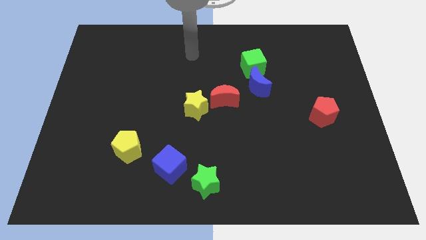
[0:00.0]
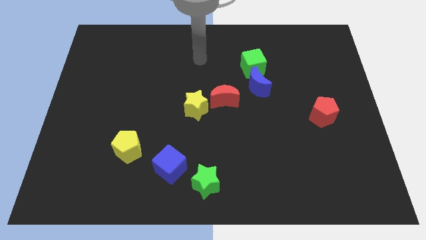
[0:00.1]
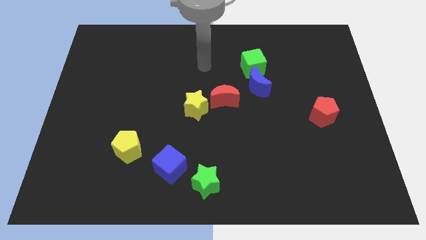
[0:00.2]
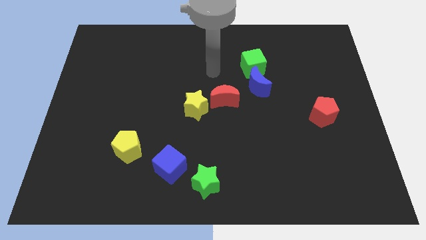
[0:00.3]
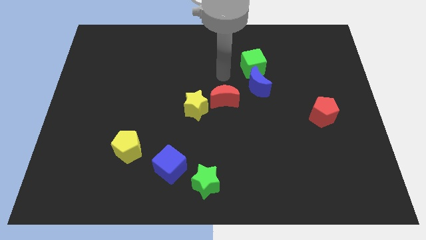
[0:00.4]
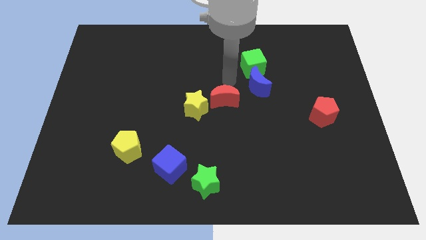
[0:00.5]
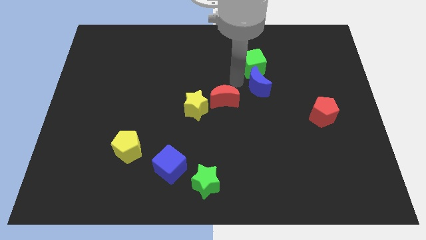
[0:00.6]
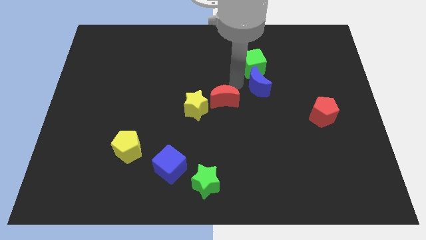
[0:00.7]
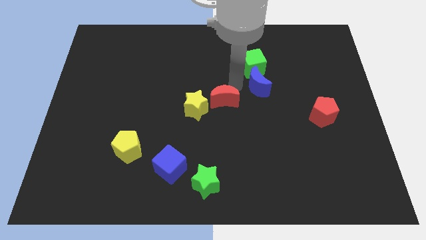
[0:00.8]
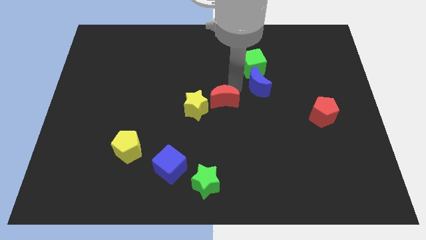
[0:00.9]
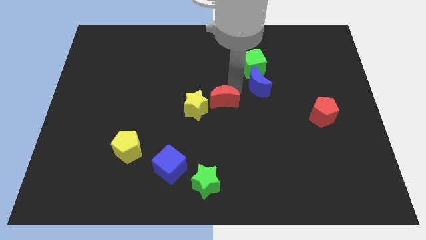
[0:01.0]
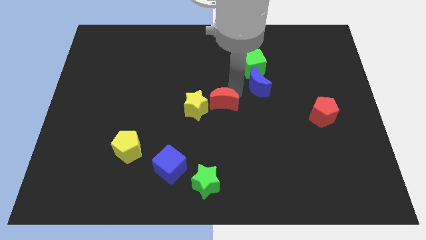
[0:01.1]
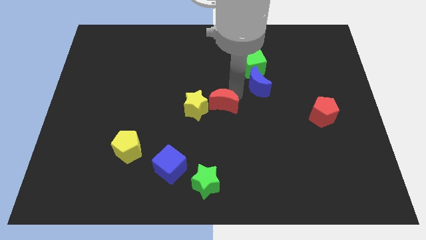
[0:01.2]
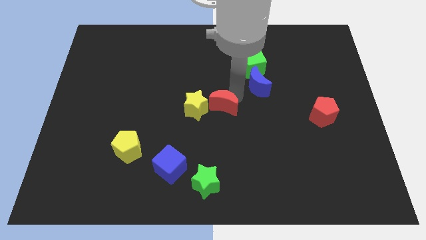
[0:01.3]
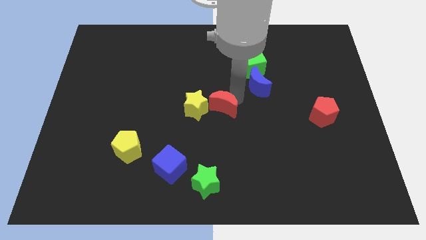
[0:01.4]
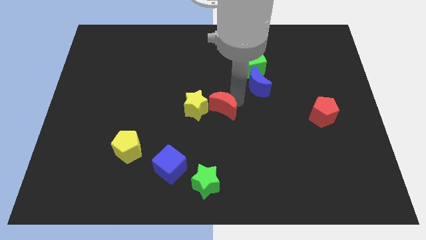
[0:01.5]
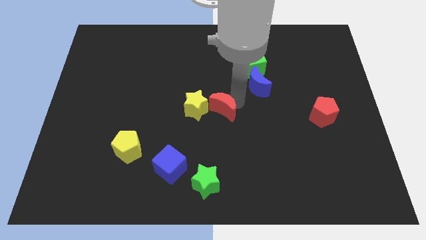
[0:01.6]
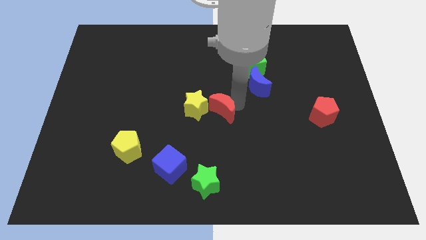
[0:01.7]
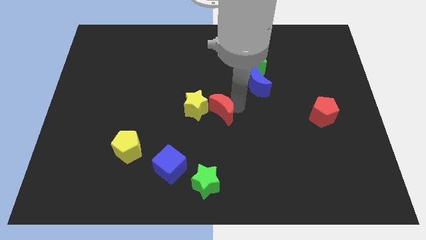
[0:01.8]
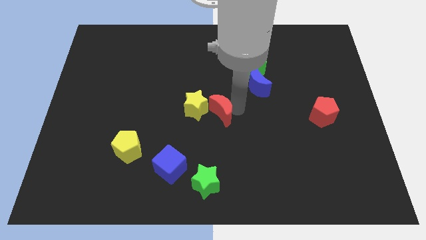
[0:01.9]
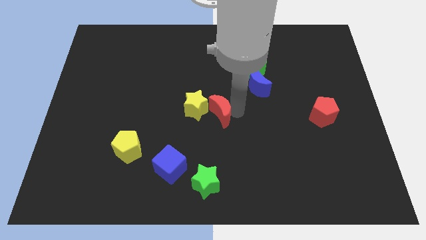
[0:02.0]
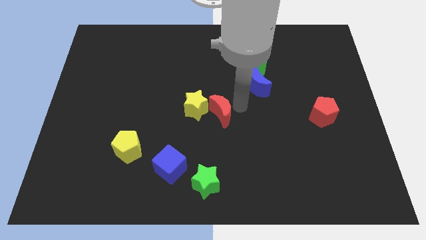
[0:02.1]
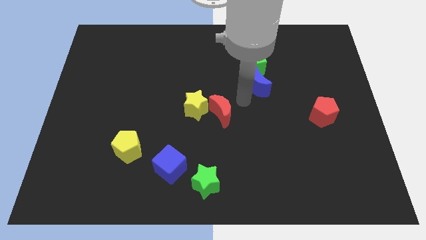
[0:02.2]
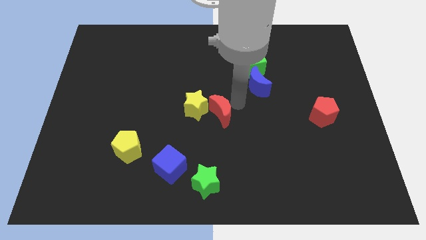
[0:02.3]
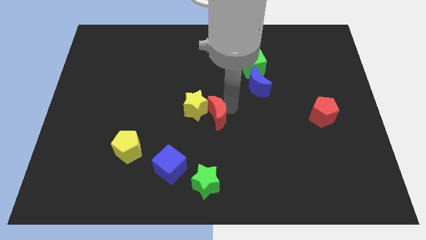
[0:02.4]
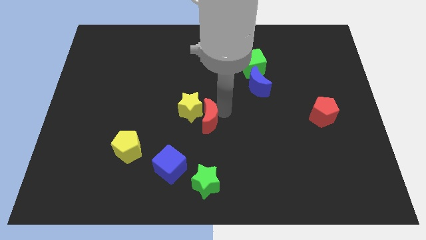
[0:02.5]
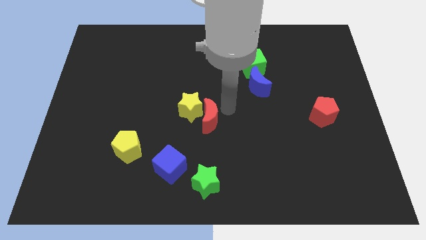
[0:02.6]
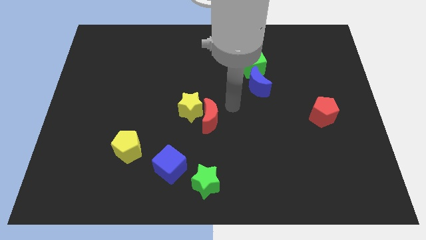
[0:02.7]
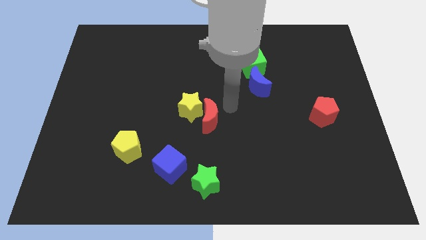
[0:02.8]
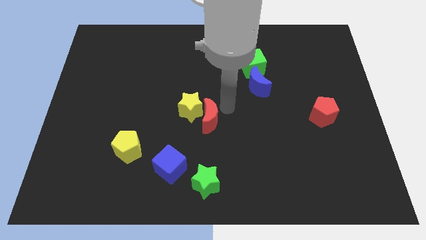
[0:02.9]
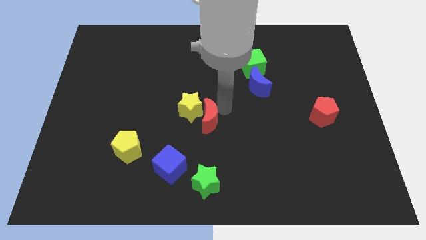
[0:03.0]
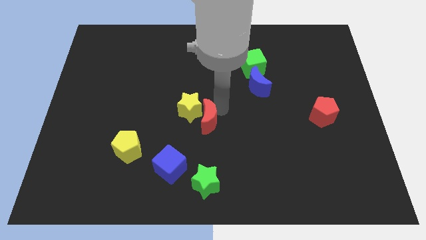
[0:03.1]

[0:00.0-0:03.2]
push the red moon down and left diagonally a bit

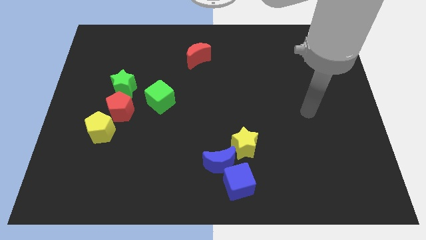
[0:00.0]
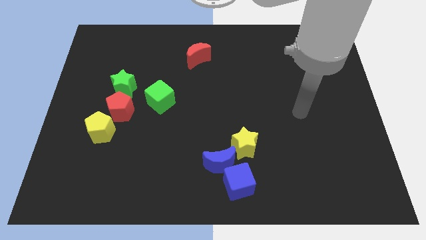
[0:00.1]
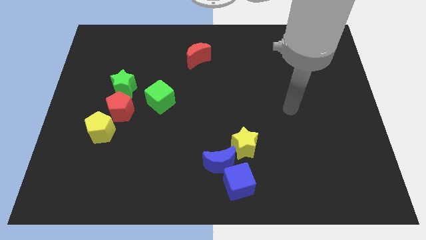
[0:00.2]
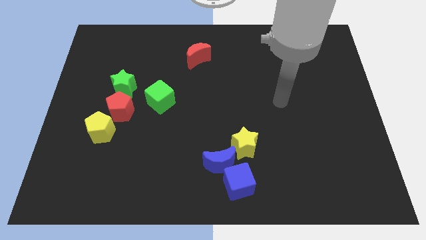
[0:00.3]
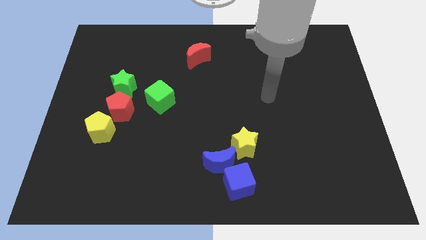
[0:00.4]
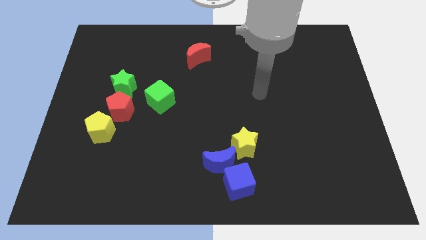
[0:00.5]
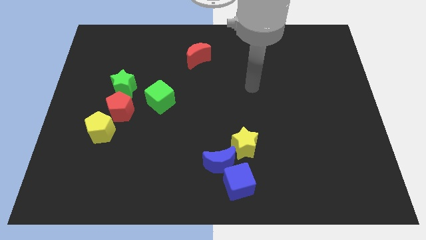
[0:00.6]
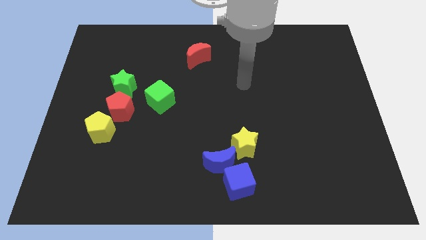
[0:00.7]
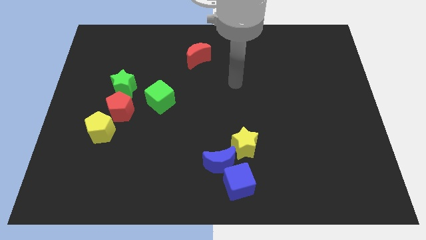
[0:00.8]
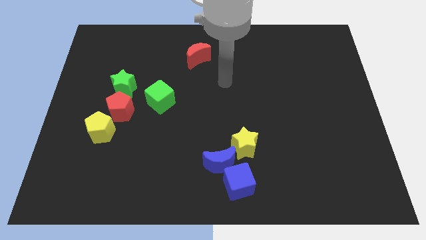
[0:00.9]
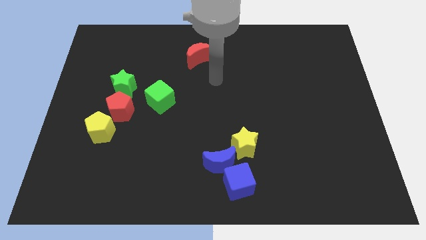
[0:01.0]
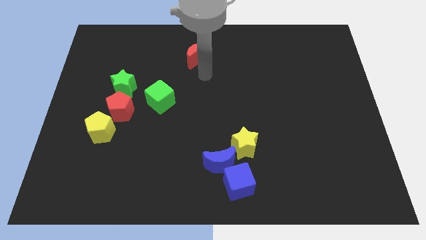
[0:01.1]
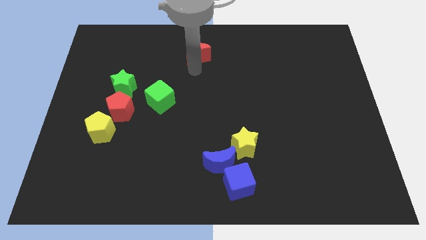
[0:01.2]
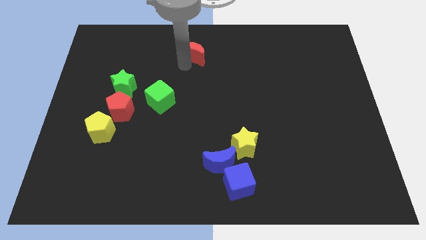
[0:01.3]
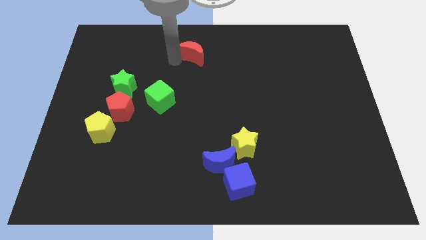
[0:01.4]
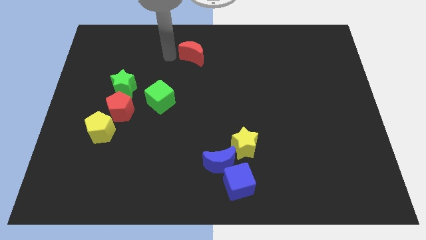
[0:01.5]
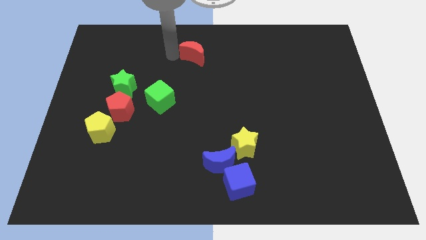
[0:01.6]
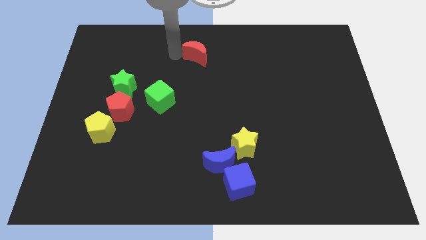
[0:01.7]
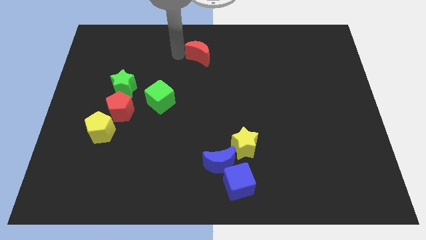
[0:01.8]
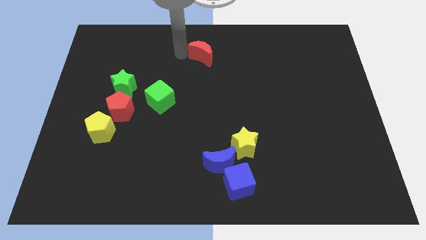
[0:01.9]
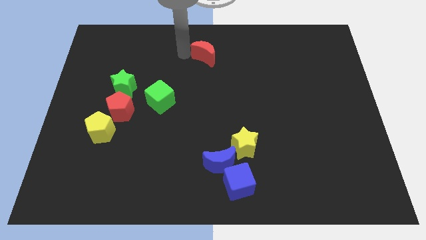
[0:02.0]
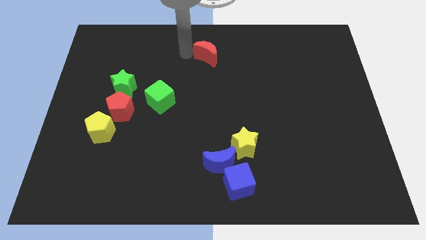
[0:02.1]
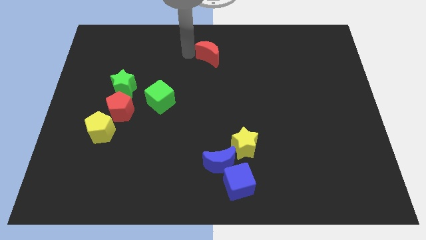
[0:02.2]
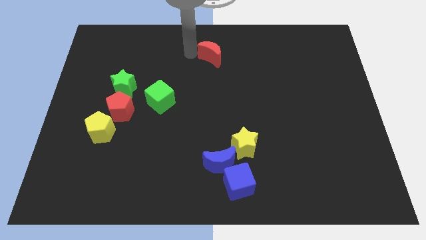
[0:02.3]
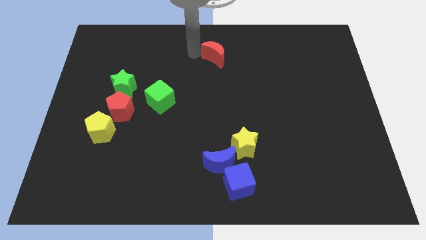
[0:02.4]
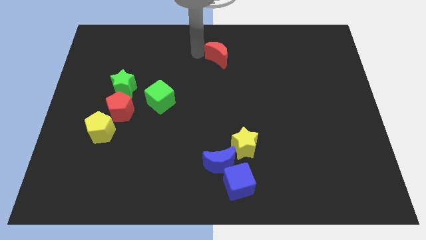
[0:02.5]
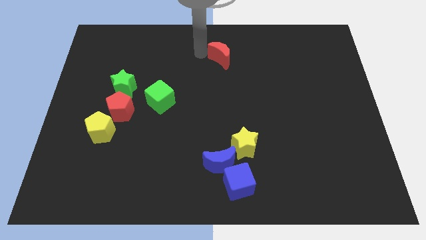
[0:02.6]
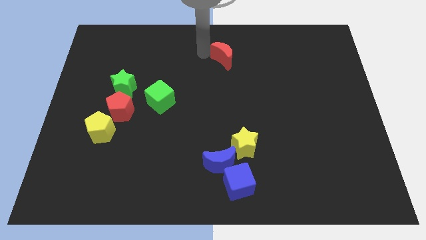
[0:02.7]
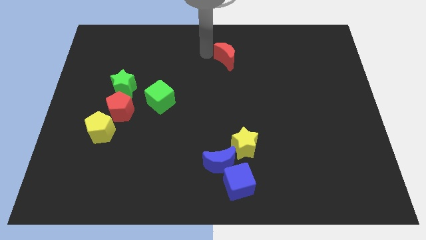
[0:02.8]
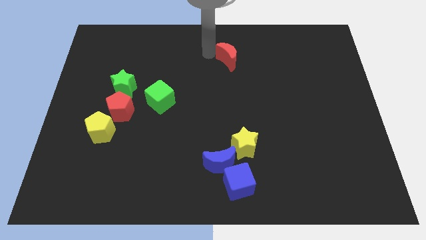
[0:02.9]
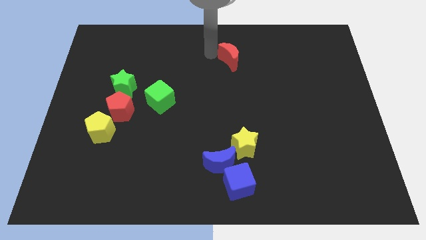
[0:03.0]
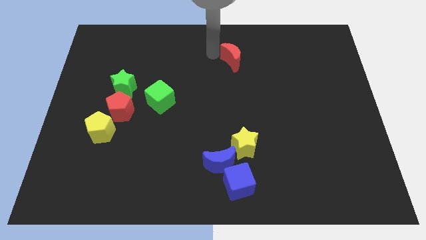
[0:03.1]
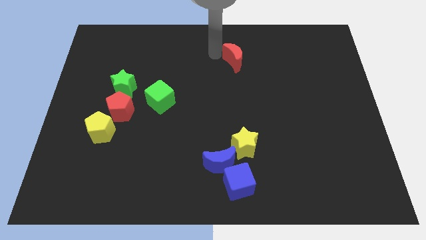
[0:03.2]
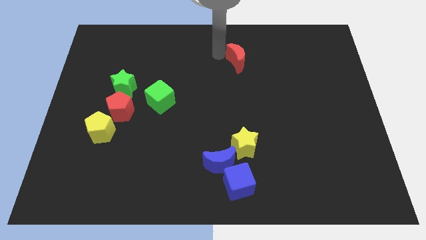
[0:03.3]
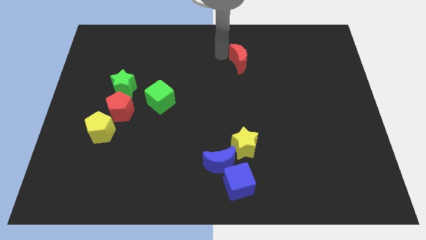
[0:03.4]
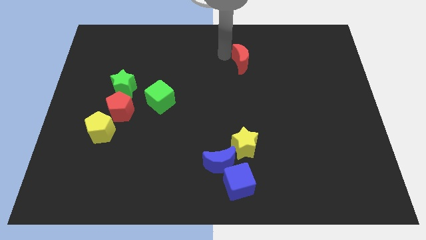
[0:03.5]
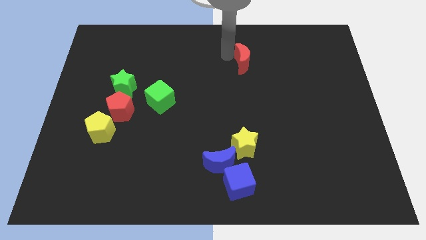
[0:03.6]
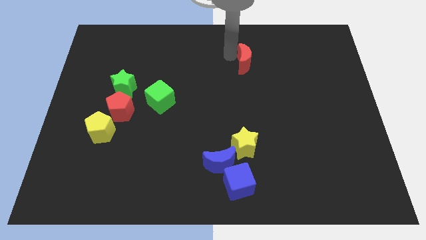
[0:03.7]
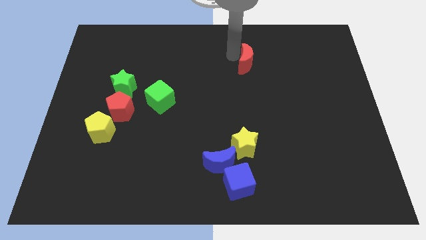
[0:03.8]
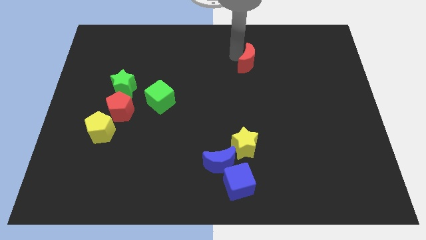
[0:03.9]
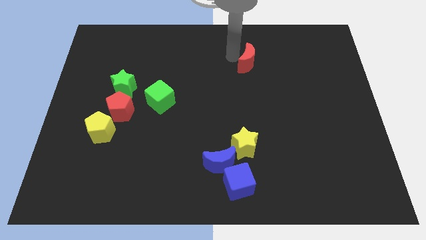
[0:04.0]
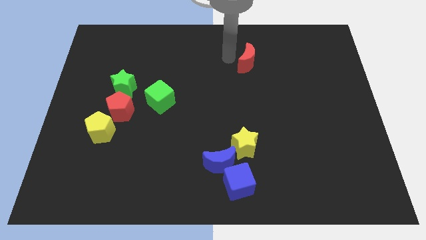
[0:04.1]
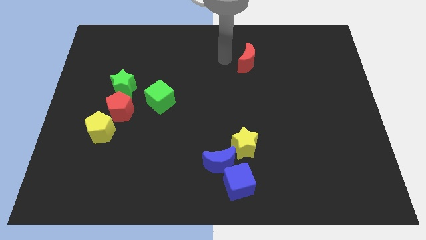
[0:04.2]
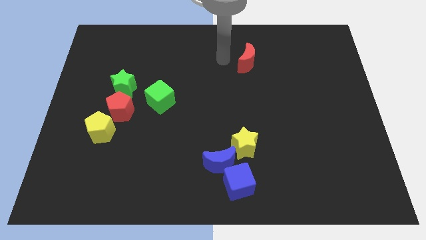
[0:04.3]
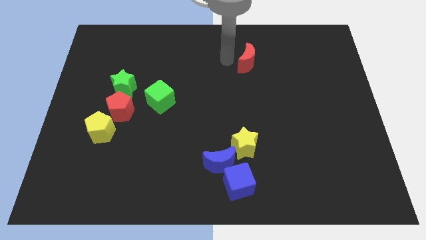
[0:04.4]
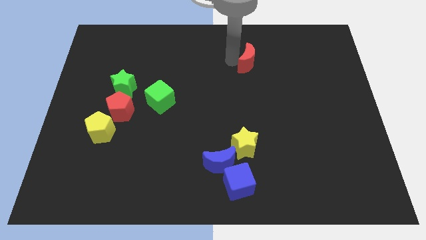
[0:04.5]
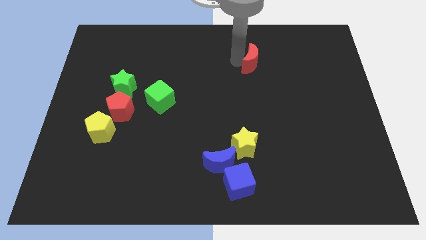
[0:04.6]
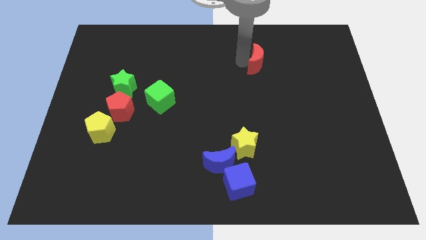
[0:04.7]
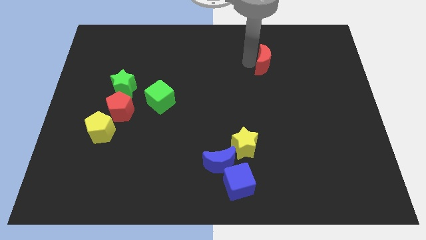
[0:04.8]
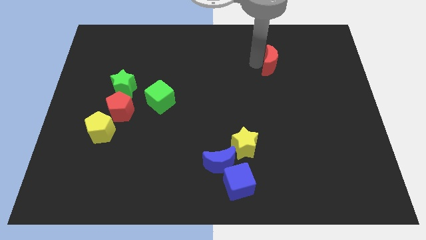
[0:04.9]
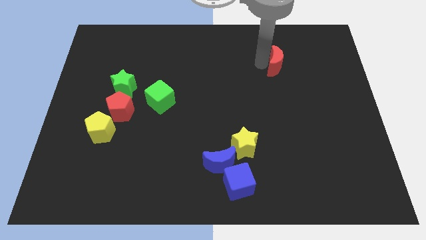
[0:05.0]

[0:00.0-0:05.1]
push the red moon right
